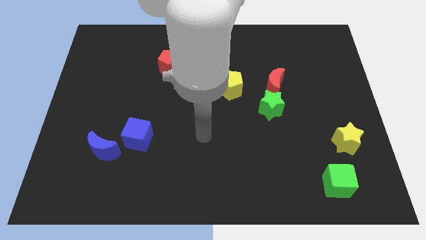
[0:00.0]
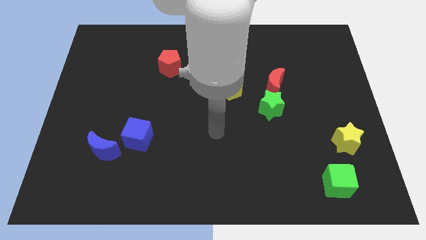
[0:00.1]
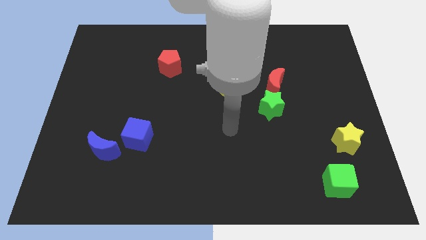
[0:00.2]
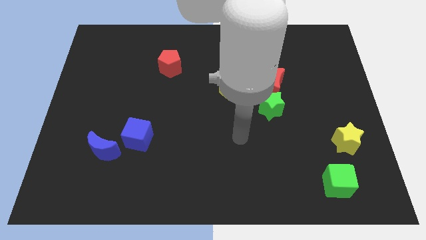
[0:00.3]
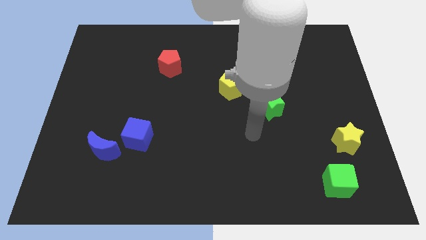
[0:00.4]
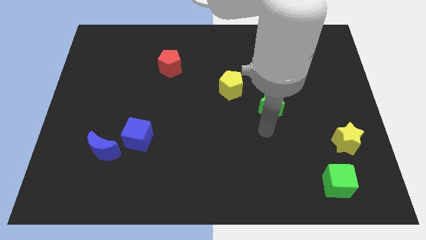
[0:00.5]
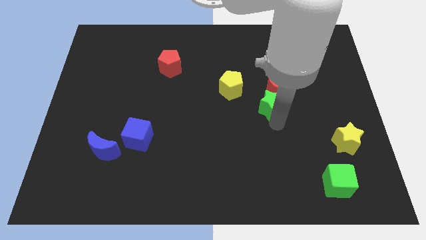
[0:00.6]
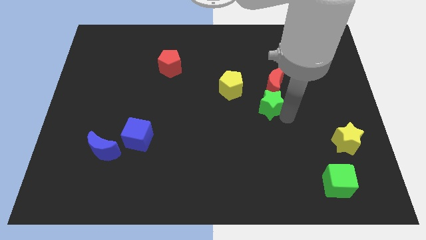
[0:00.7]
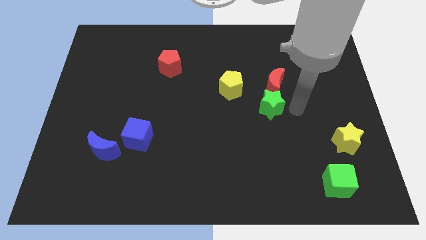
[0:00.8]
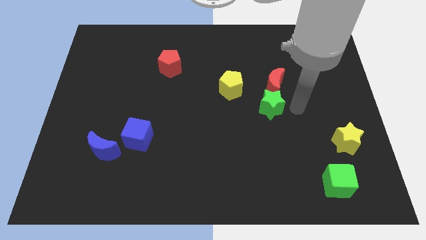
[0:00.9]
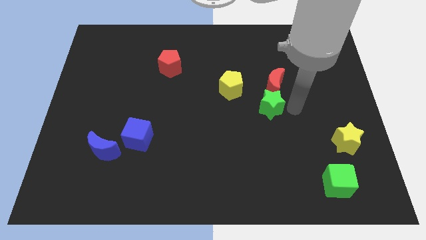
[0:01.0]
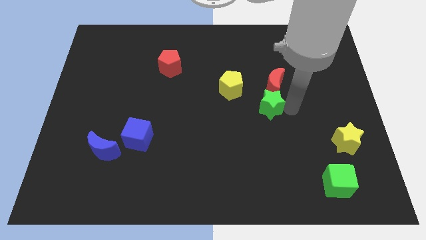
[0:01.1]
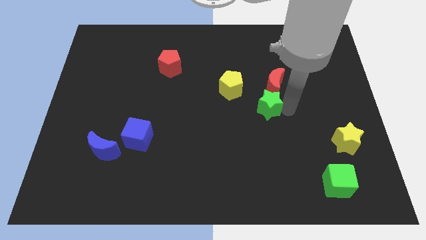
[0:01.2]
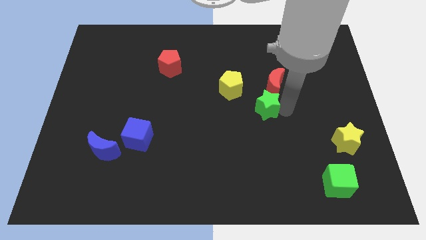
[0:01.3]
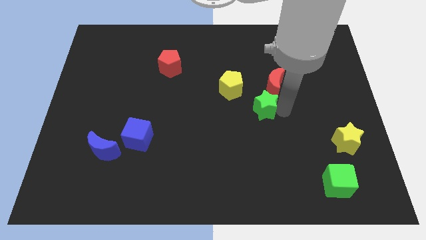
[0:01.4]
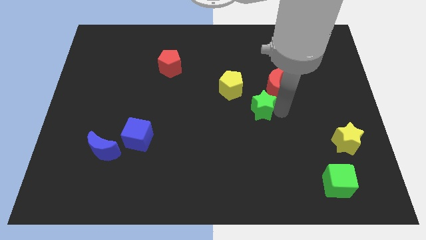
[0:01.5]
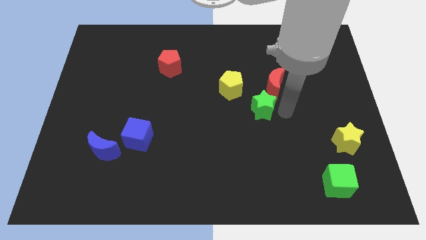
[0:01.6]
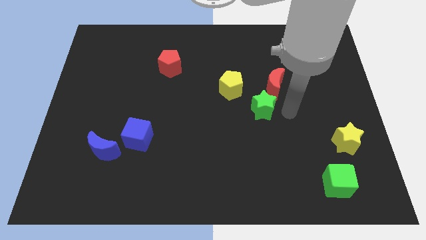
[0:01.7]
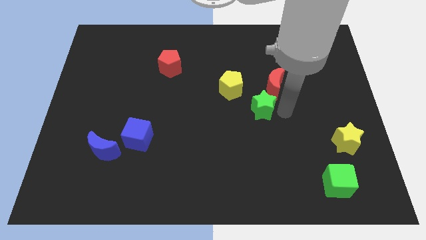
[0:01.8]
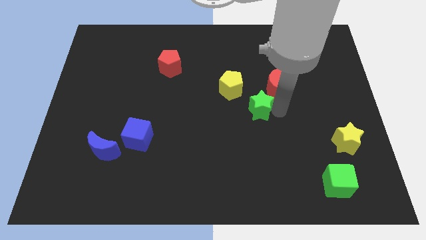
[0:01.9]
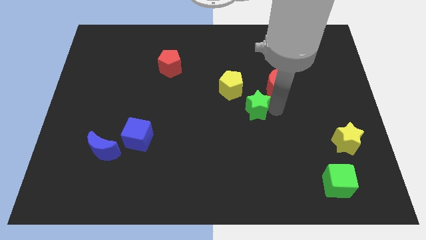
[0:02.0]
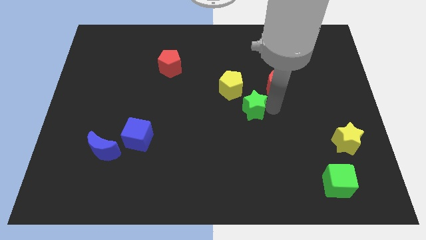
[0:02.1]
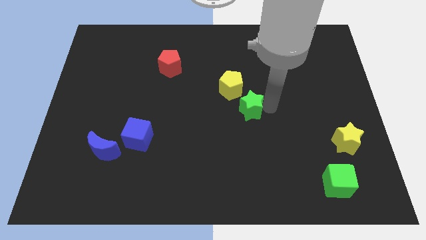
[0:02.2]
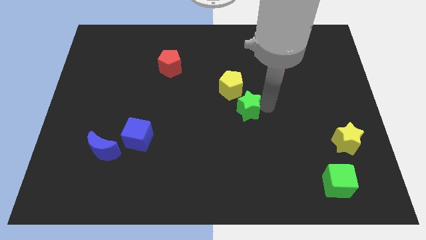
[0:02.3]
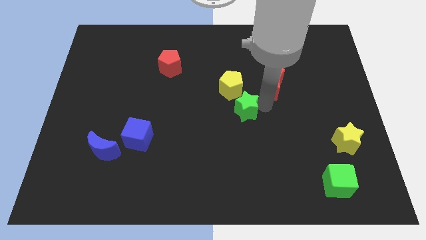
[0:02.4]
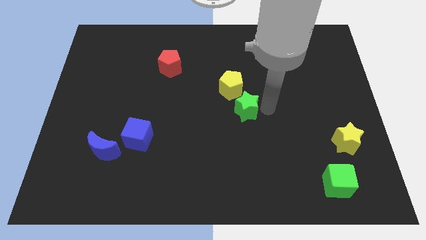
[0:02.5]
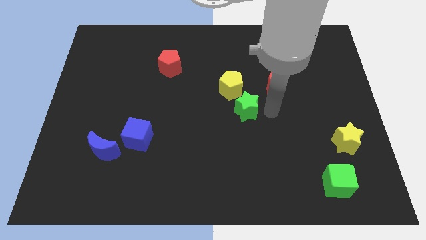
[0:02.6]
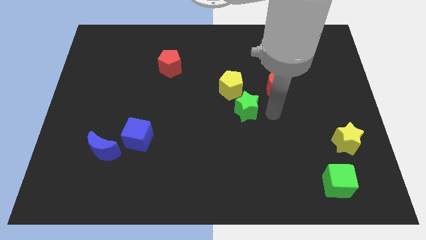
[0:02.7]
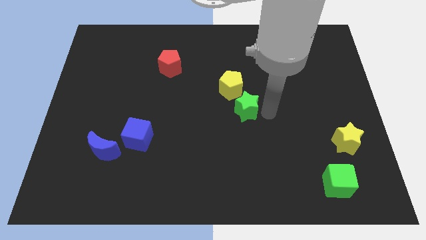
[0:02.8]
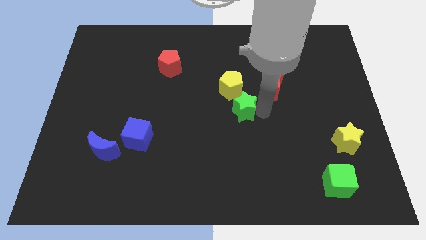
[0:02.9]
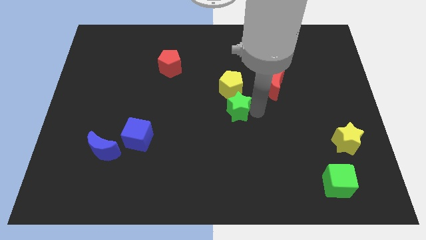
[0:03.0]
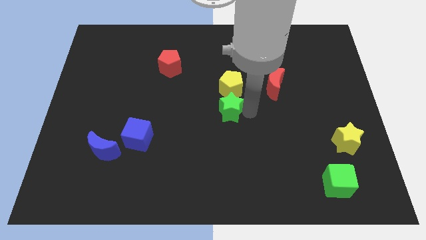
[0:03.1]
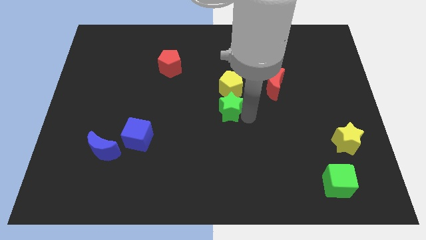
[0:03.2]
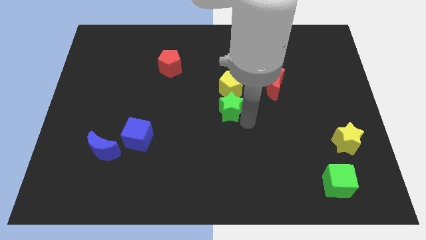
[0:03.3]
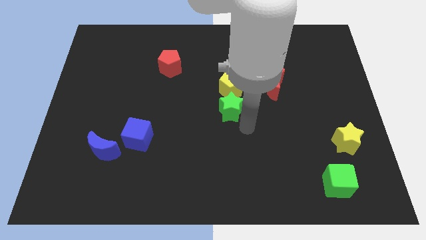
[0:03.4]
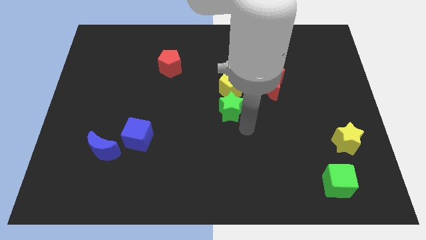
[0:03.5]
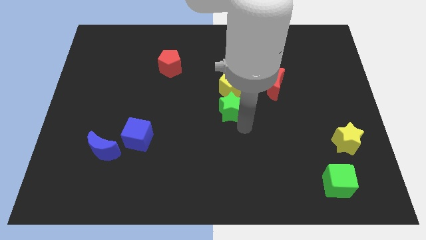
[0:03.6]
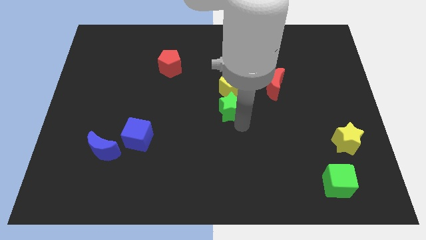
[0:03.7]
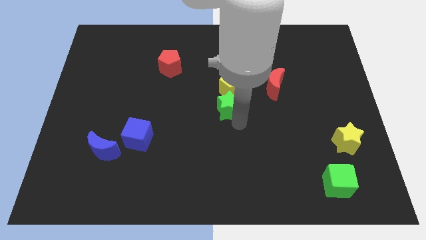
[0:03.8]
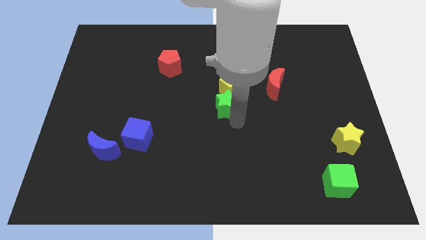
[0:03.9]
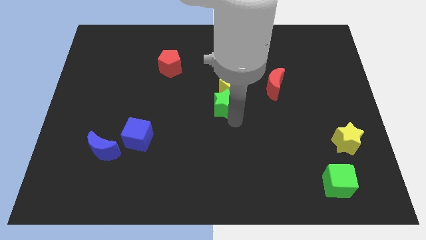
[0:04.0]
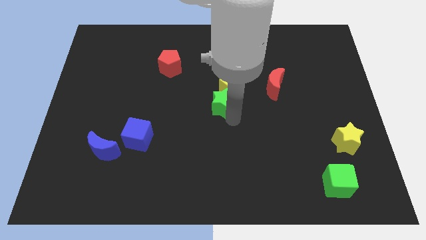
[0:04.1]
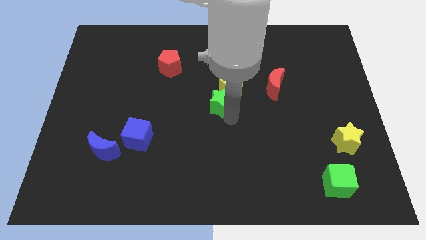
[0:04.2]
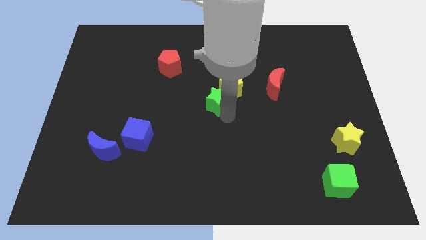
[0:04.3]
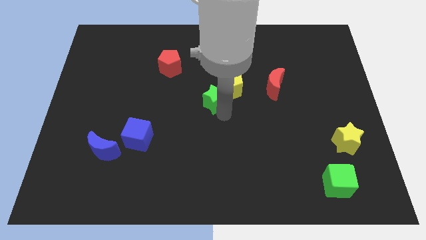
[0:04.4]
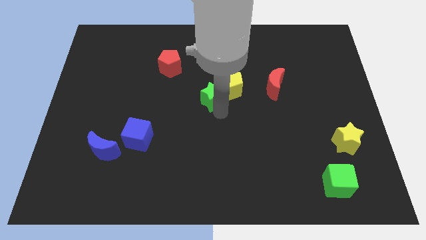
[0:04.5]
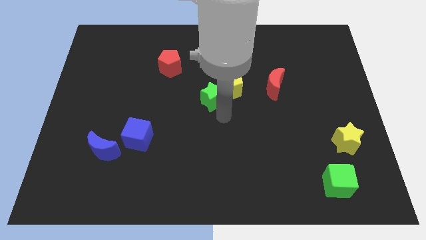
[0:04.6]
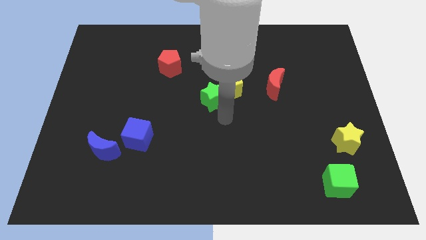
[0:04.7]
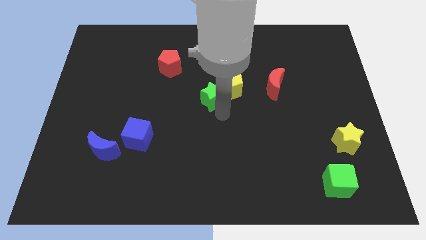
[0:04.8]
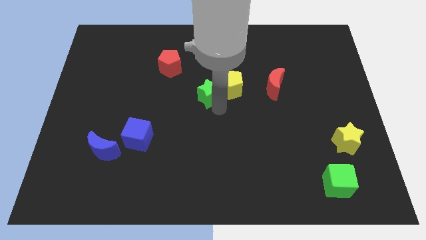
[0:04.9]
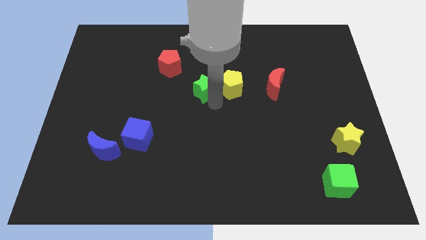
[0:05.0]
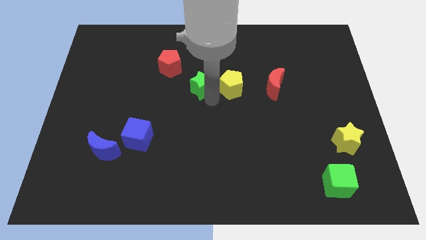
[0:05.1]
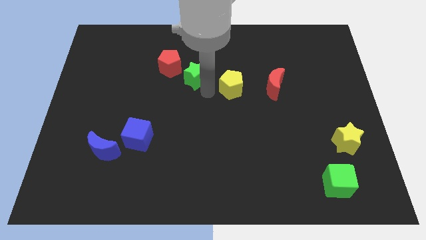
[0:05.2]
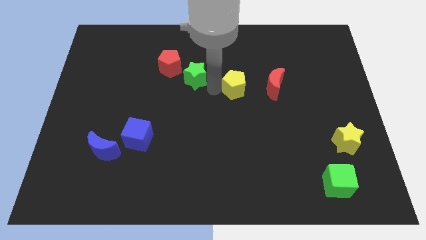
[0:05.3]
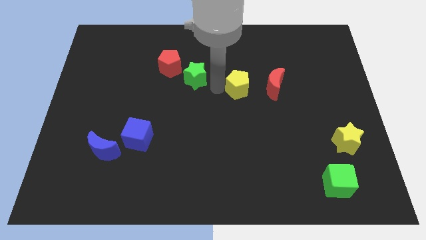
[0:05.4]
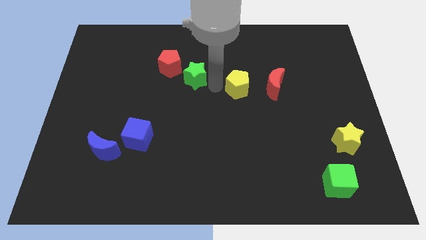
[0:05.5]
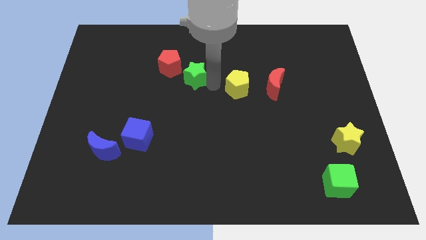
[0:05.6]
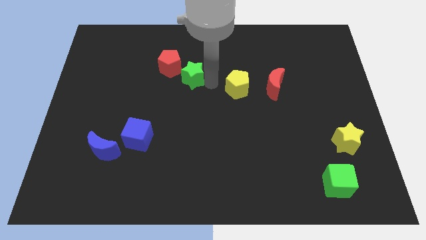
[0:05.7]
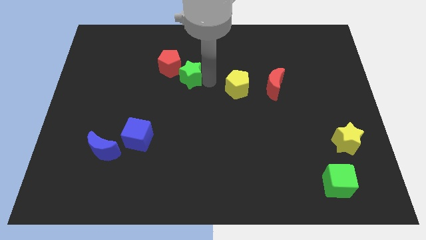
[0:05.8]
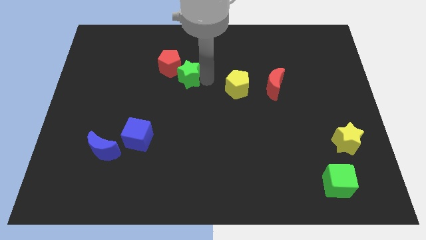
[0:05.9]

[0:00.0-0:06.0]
push the green star close to the red pentagon

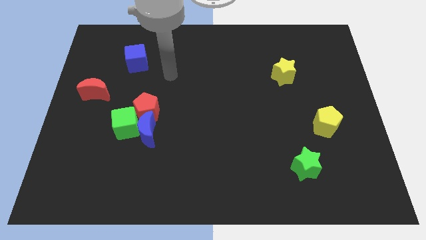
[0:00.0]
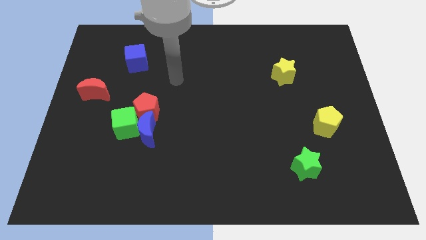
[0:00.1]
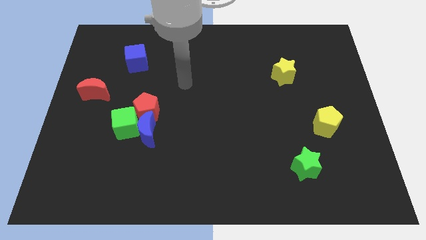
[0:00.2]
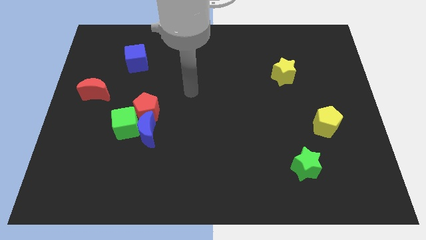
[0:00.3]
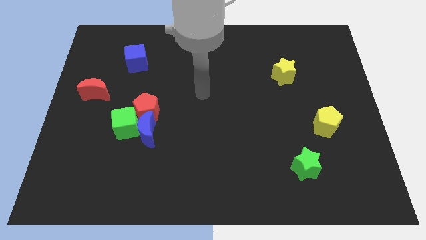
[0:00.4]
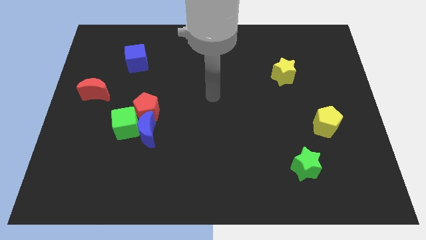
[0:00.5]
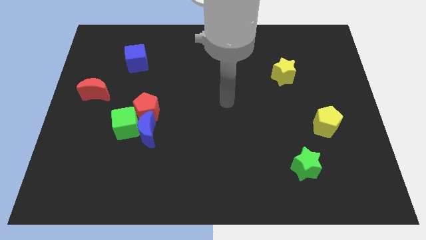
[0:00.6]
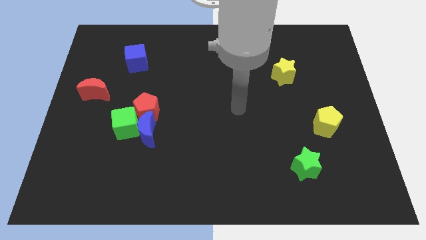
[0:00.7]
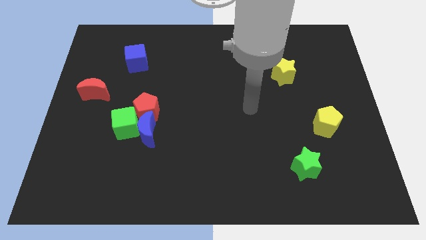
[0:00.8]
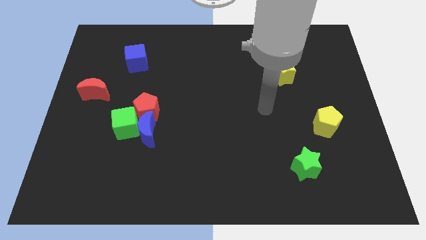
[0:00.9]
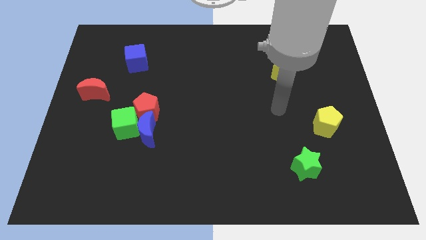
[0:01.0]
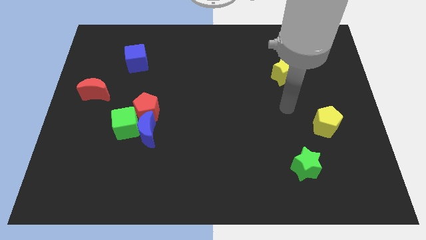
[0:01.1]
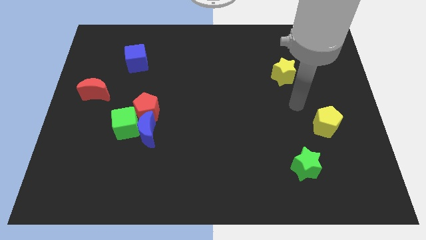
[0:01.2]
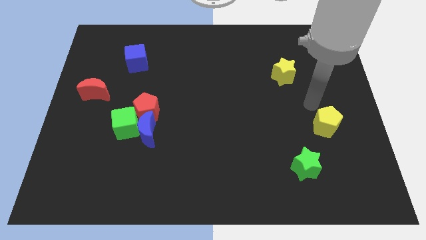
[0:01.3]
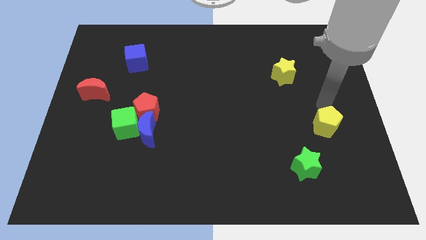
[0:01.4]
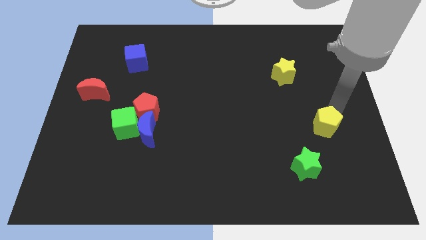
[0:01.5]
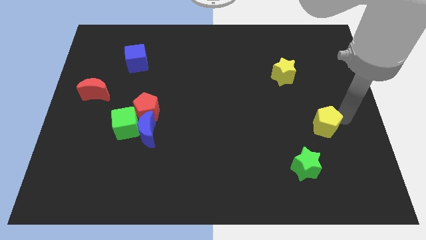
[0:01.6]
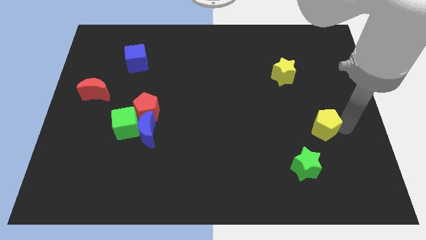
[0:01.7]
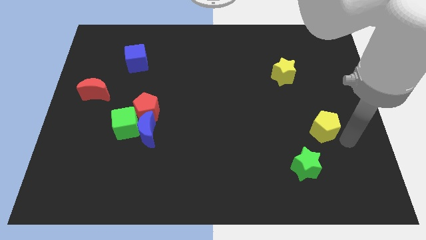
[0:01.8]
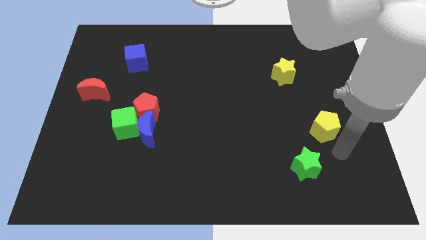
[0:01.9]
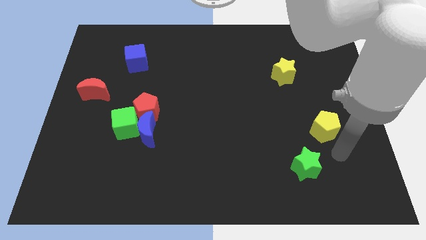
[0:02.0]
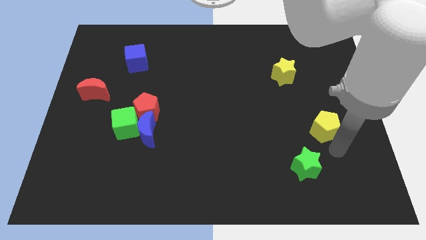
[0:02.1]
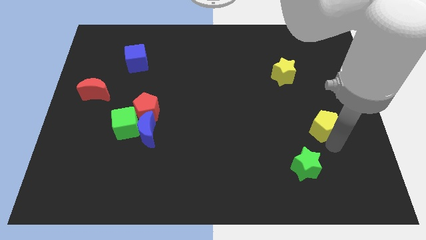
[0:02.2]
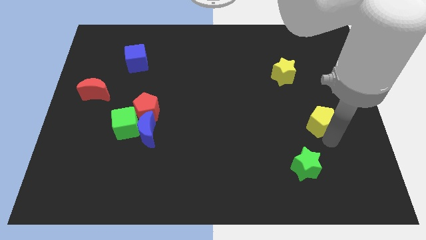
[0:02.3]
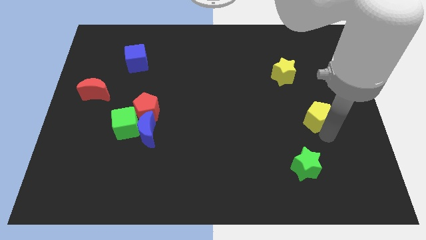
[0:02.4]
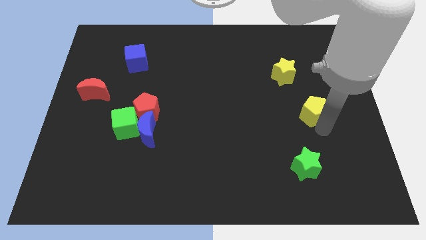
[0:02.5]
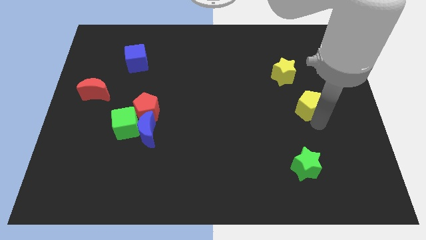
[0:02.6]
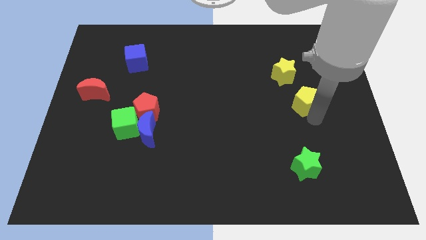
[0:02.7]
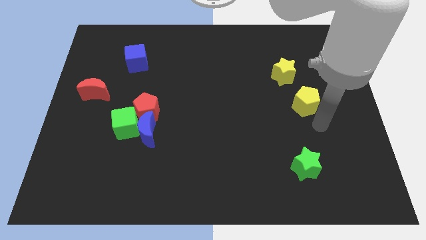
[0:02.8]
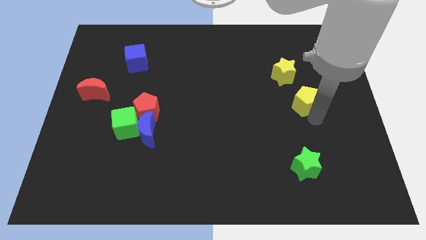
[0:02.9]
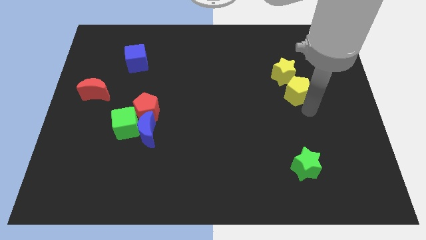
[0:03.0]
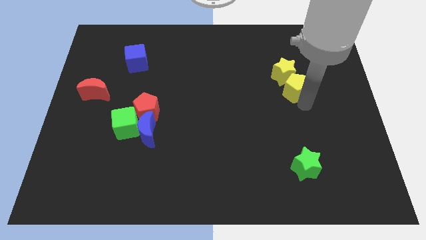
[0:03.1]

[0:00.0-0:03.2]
move the yellow pentagon close to the yellow star
